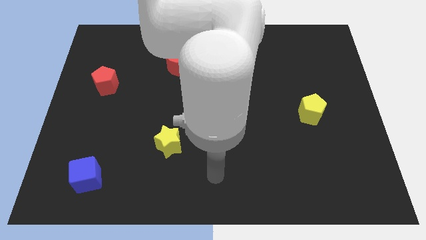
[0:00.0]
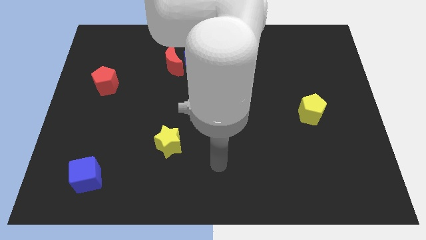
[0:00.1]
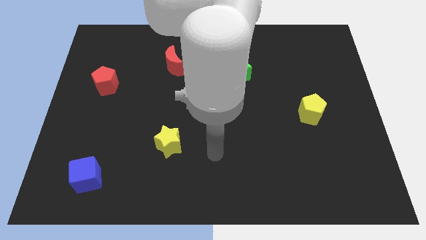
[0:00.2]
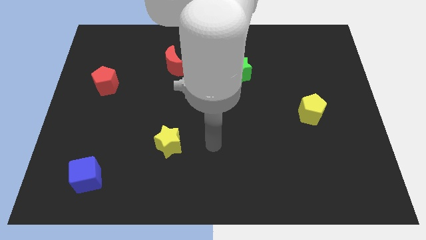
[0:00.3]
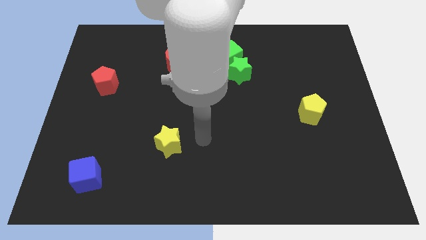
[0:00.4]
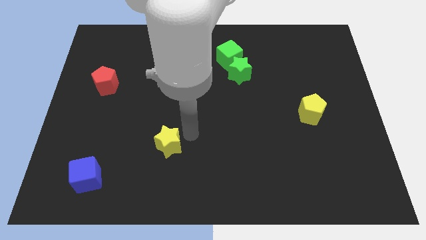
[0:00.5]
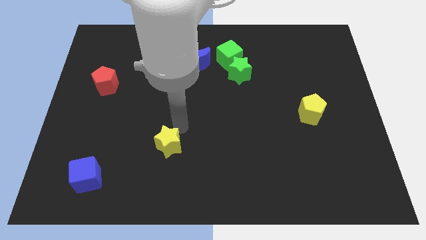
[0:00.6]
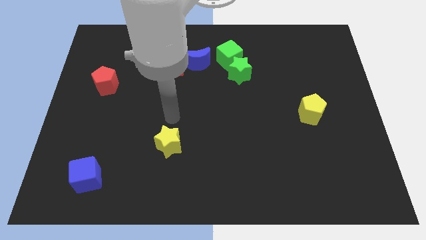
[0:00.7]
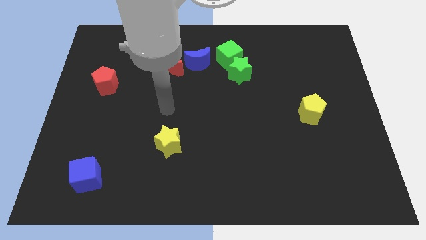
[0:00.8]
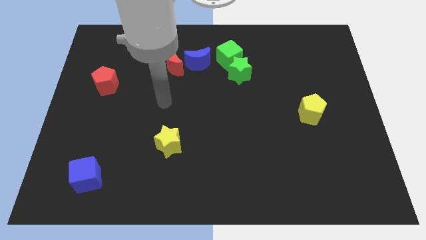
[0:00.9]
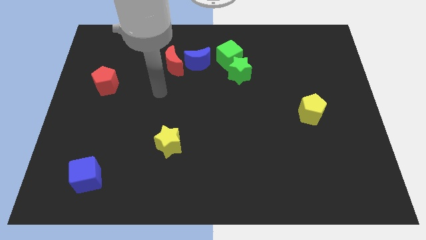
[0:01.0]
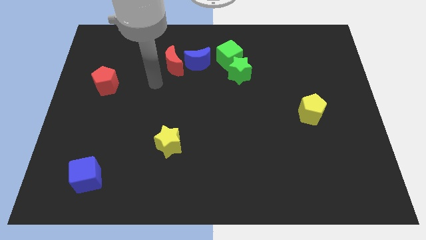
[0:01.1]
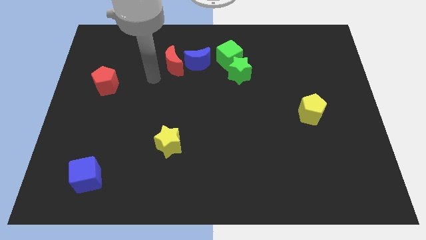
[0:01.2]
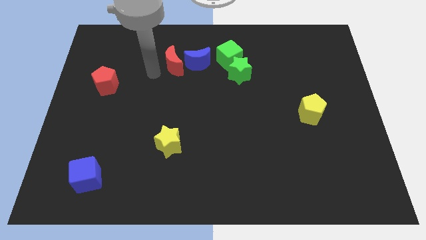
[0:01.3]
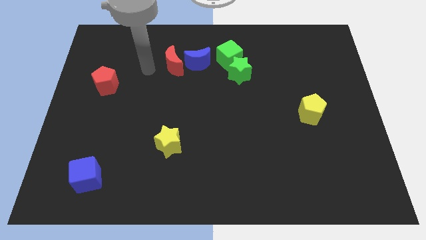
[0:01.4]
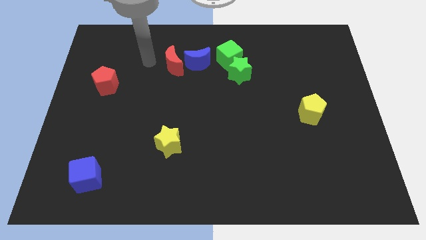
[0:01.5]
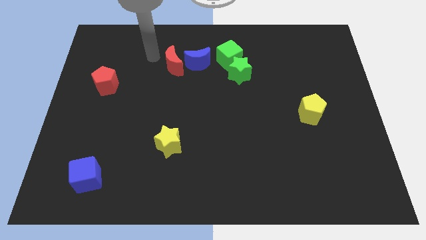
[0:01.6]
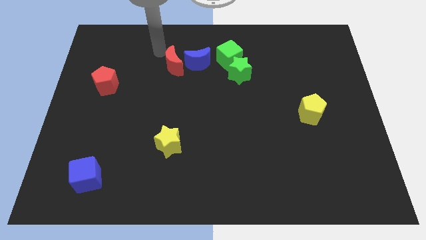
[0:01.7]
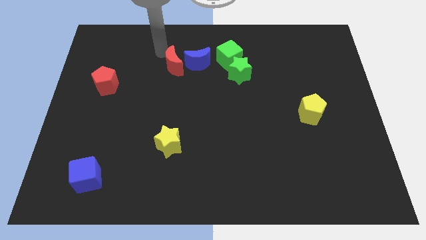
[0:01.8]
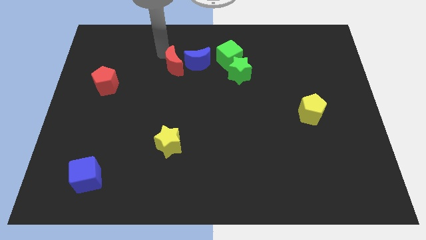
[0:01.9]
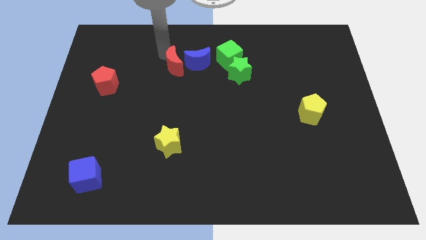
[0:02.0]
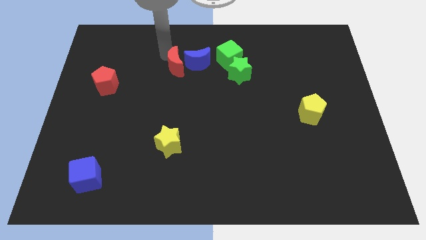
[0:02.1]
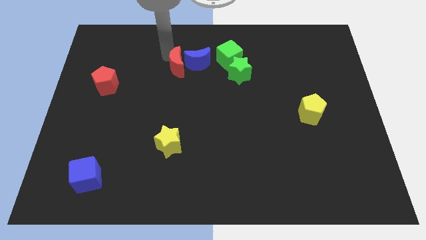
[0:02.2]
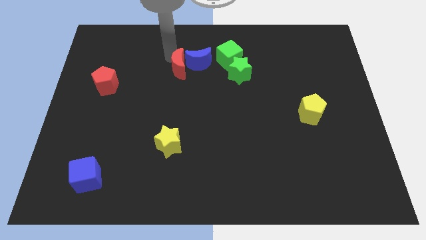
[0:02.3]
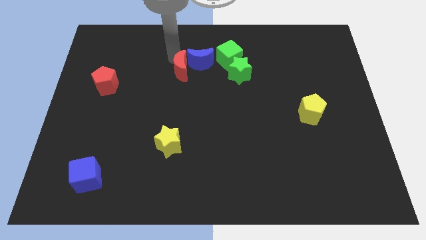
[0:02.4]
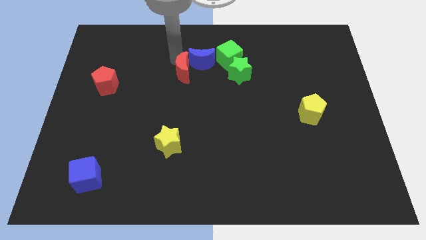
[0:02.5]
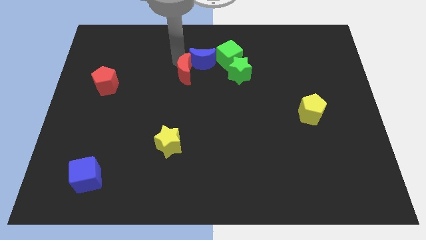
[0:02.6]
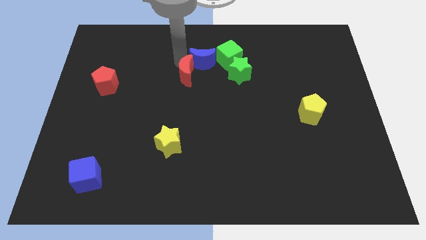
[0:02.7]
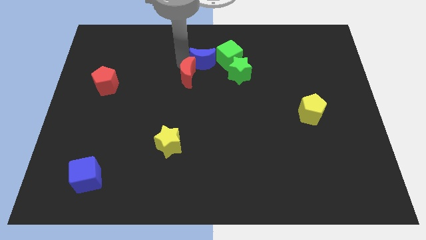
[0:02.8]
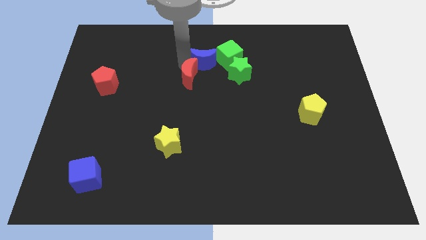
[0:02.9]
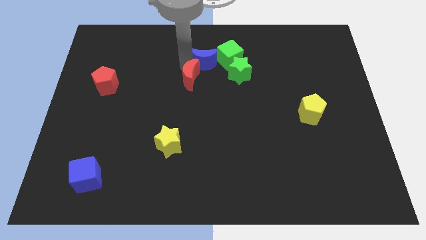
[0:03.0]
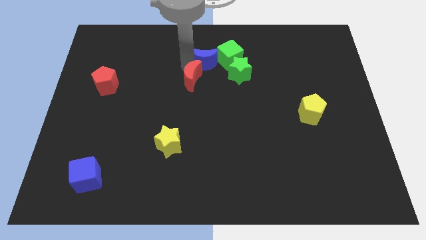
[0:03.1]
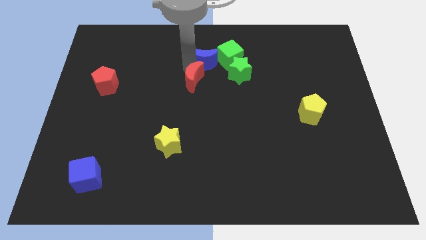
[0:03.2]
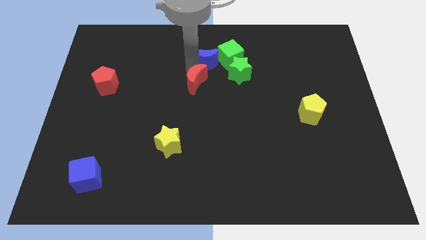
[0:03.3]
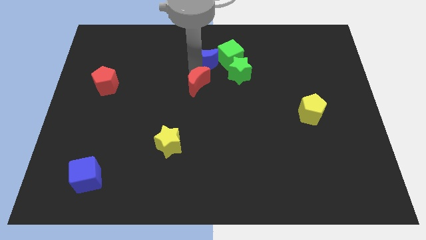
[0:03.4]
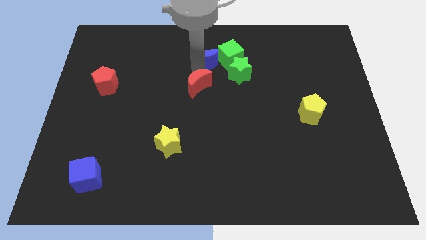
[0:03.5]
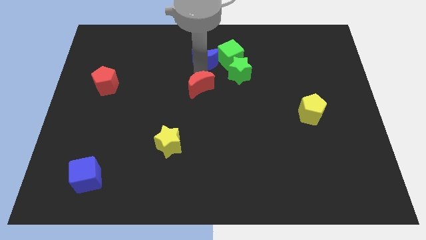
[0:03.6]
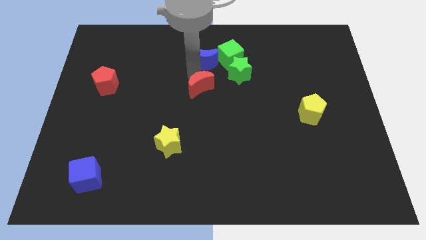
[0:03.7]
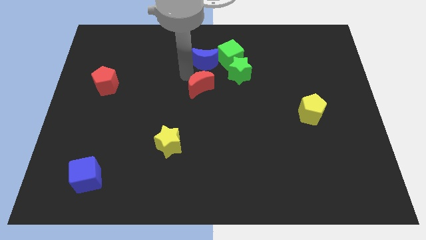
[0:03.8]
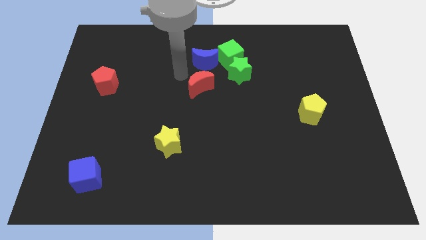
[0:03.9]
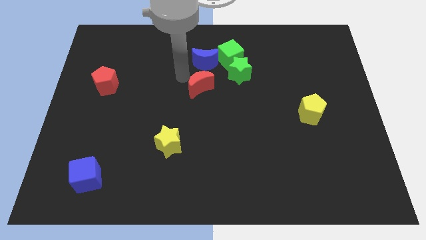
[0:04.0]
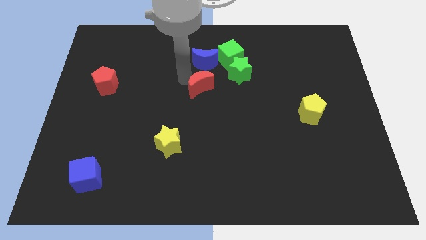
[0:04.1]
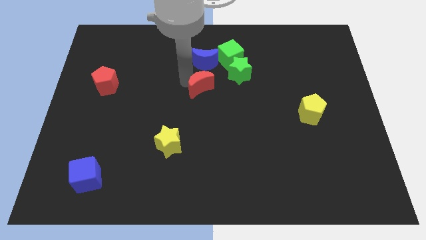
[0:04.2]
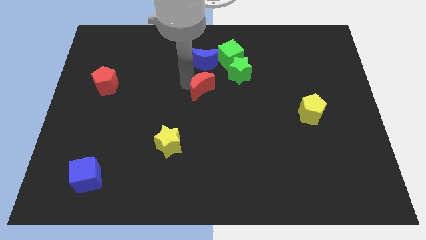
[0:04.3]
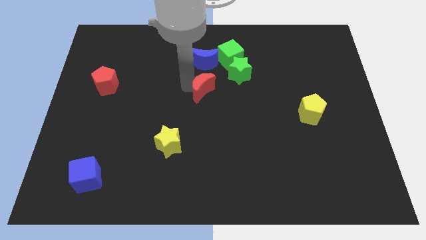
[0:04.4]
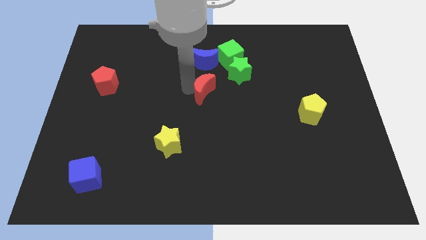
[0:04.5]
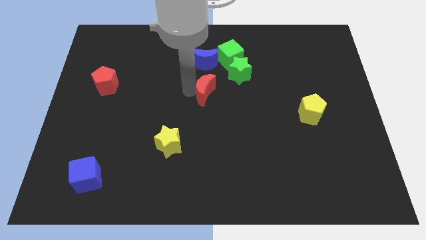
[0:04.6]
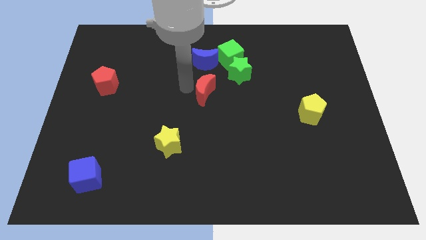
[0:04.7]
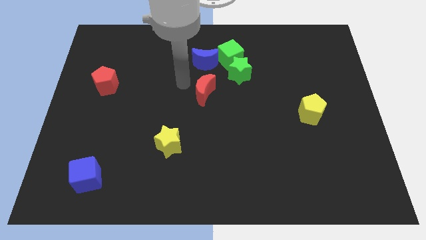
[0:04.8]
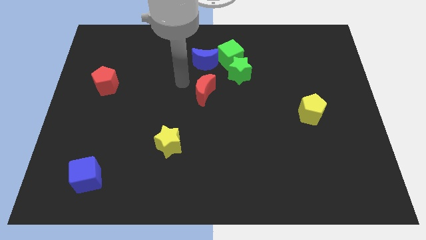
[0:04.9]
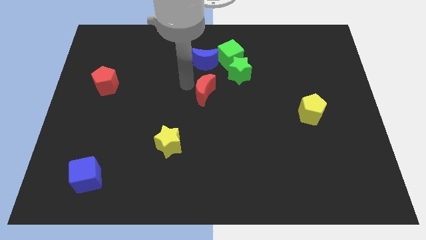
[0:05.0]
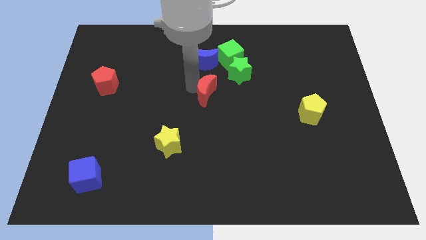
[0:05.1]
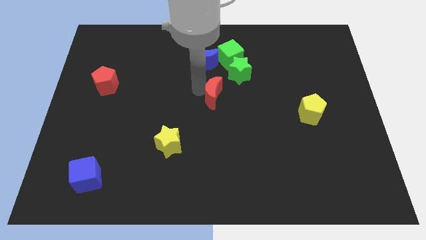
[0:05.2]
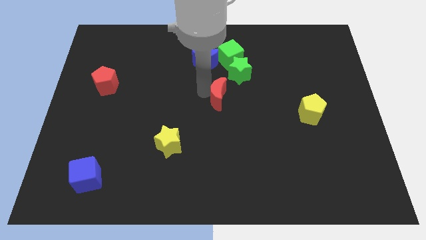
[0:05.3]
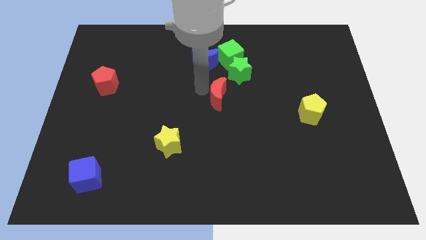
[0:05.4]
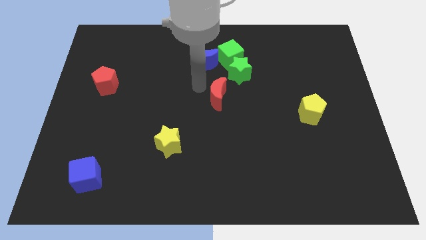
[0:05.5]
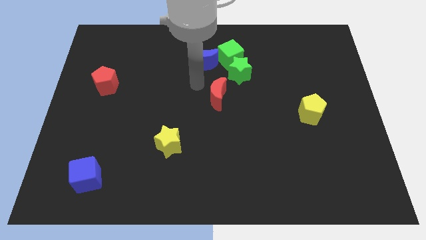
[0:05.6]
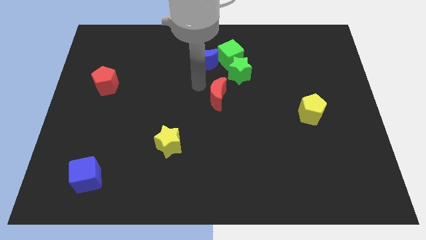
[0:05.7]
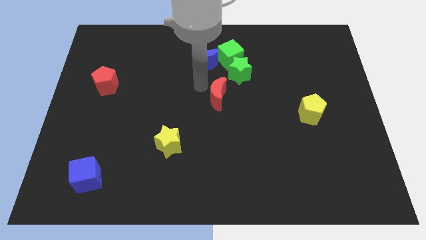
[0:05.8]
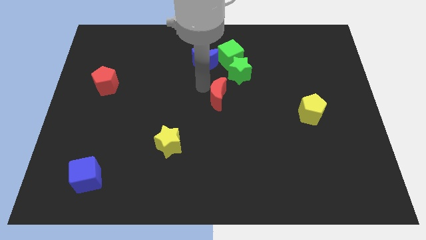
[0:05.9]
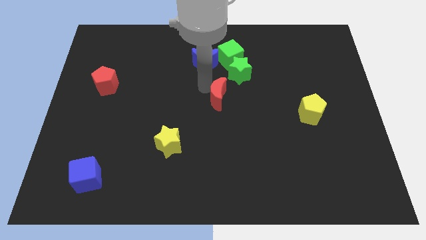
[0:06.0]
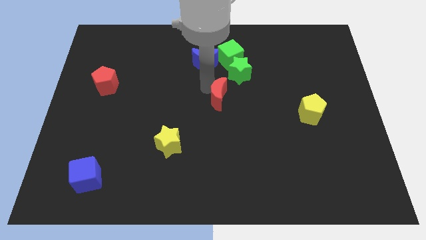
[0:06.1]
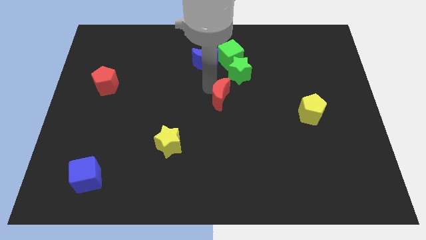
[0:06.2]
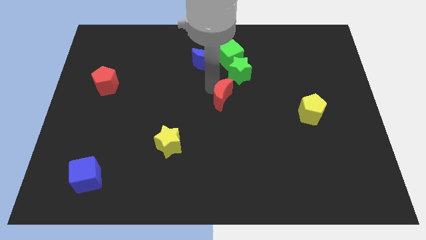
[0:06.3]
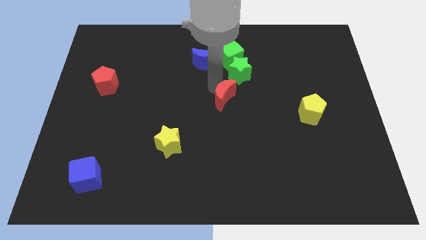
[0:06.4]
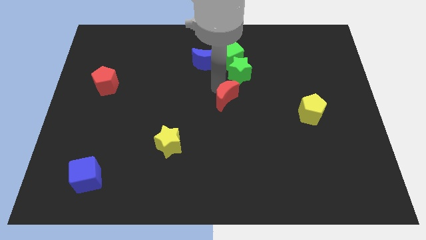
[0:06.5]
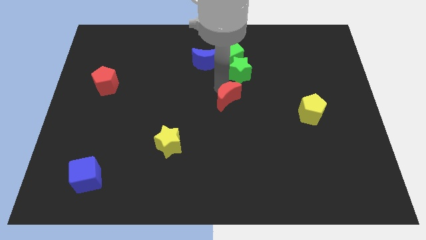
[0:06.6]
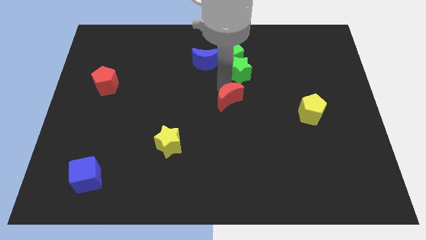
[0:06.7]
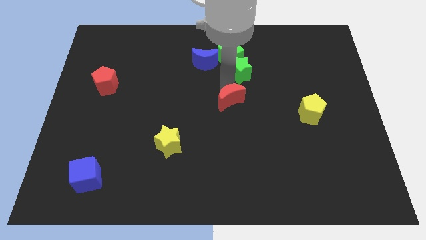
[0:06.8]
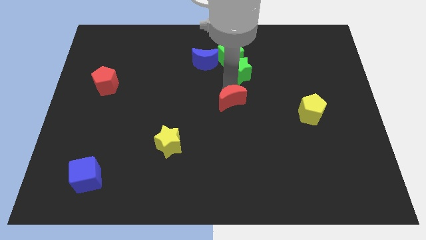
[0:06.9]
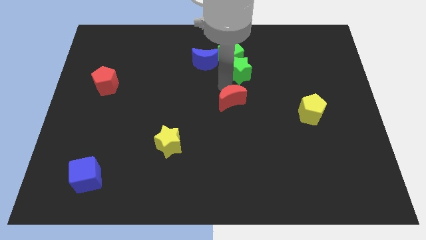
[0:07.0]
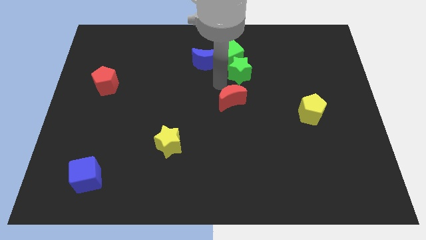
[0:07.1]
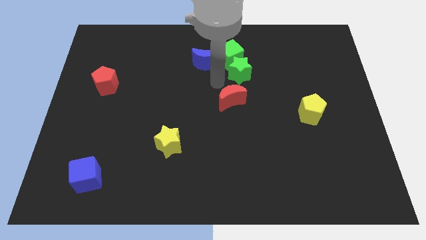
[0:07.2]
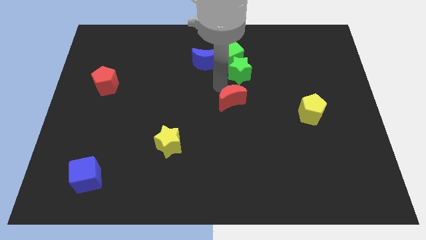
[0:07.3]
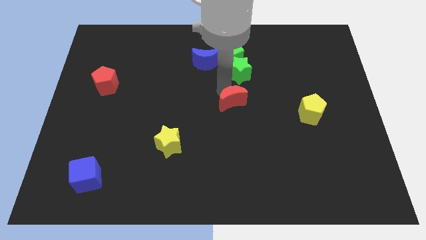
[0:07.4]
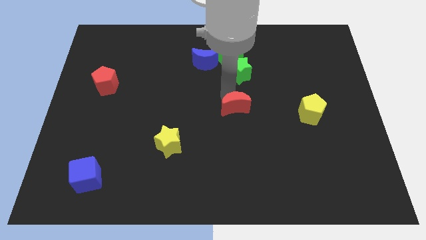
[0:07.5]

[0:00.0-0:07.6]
slide the red moon downwards and right
